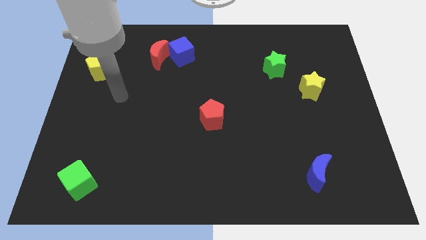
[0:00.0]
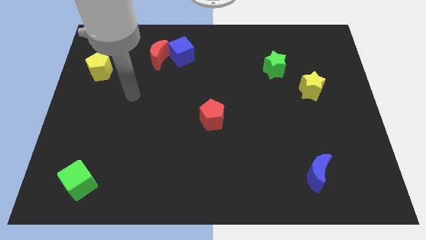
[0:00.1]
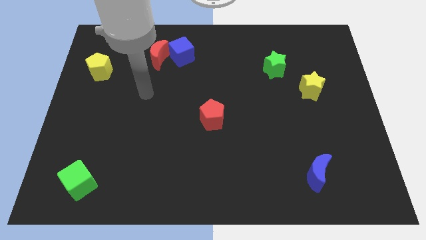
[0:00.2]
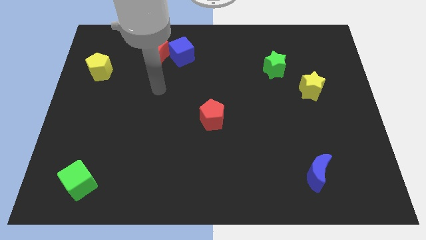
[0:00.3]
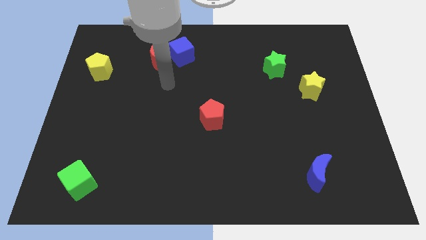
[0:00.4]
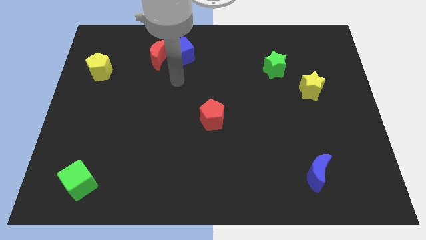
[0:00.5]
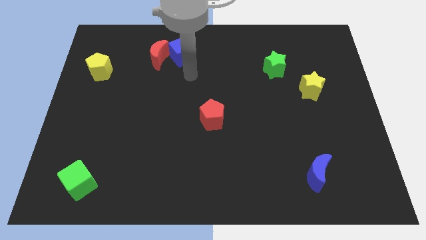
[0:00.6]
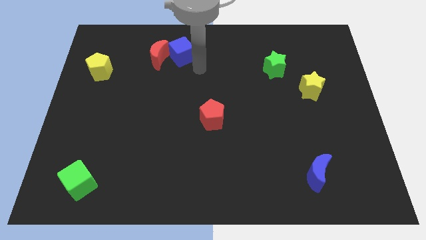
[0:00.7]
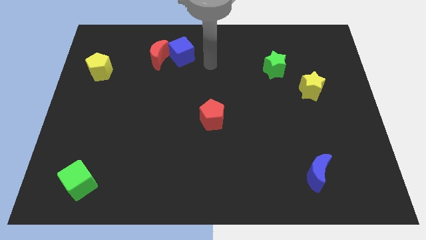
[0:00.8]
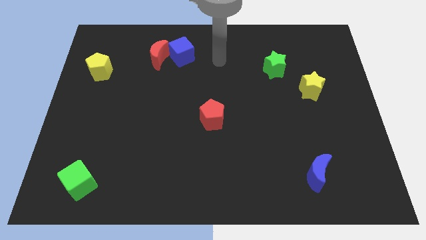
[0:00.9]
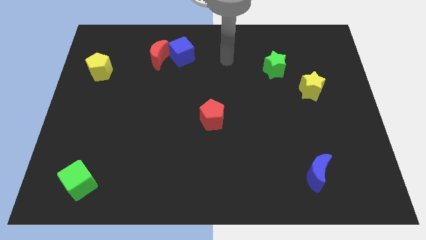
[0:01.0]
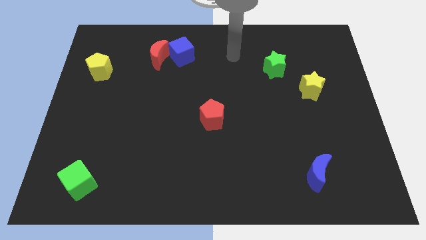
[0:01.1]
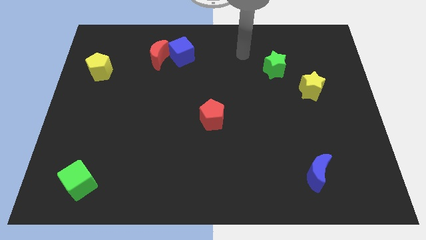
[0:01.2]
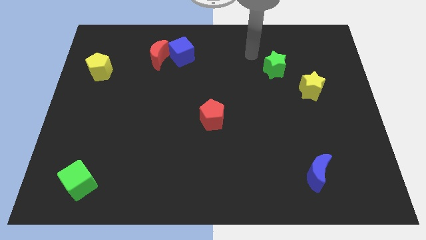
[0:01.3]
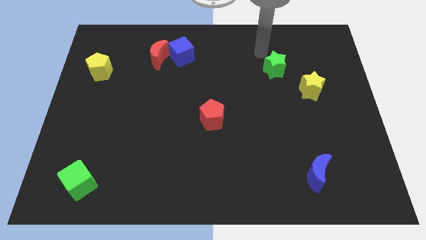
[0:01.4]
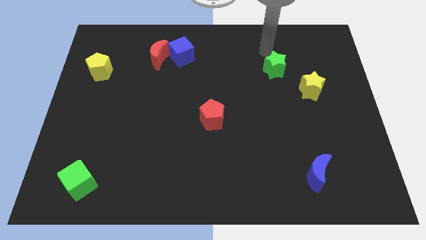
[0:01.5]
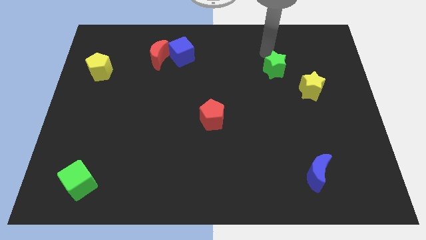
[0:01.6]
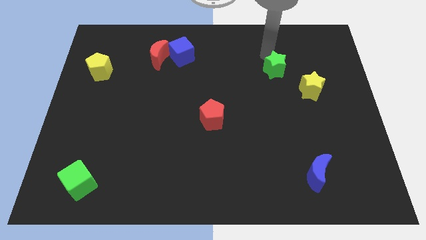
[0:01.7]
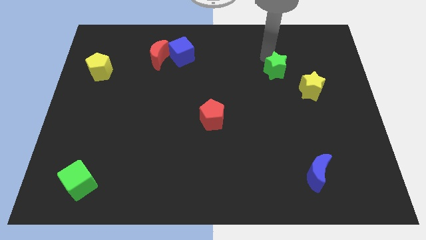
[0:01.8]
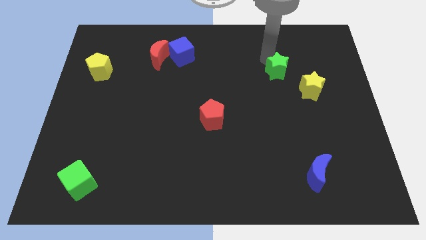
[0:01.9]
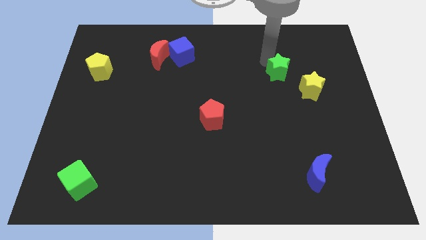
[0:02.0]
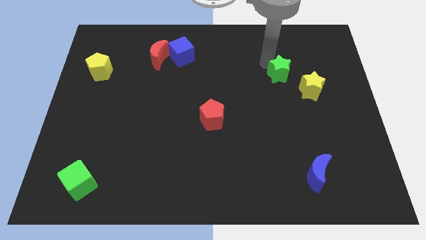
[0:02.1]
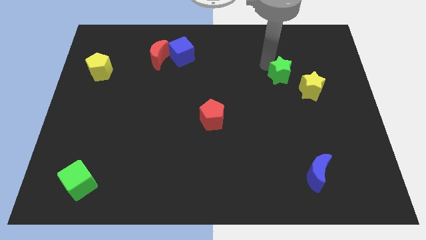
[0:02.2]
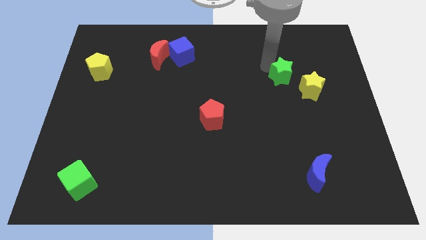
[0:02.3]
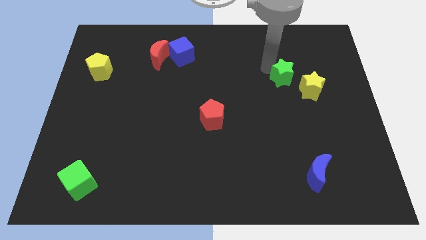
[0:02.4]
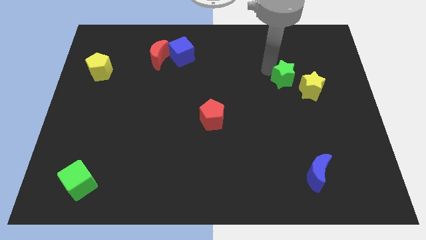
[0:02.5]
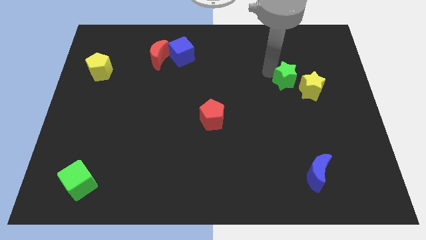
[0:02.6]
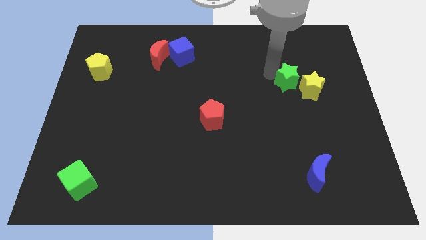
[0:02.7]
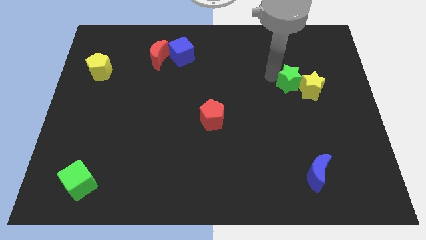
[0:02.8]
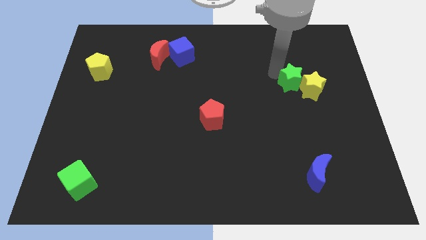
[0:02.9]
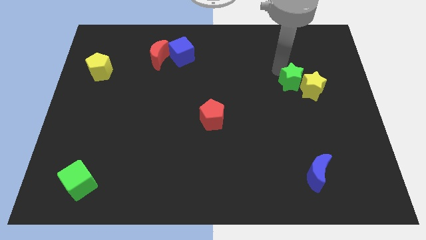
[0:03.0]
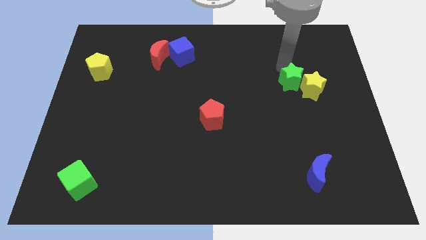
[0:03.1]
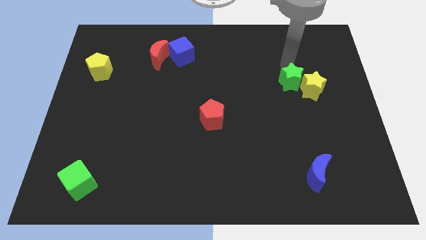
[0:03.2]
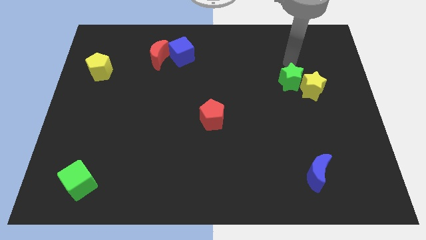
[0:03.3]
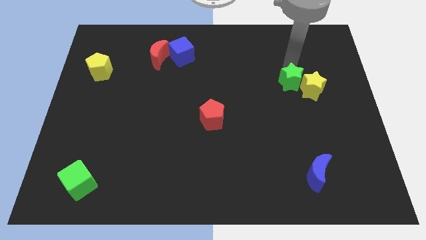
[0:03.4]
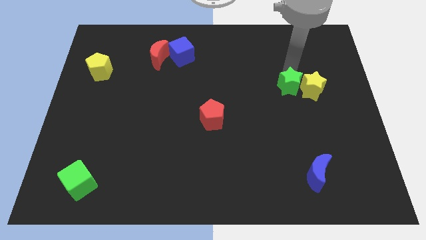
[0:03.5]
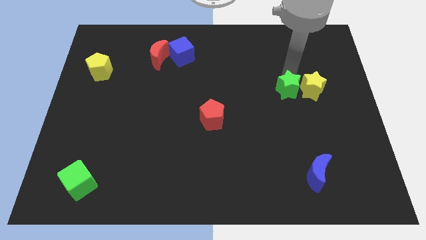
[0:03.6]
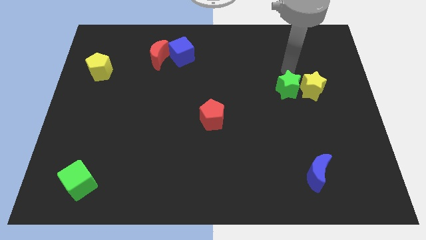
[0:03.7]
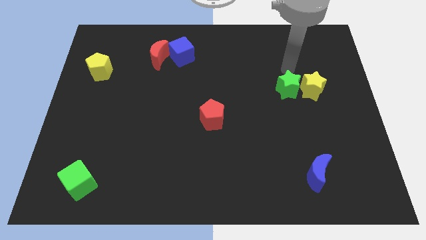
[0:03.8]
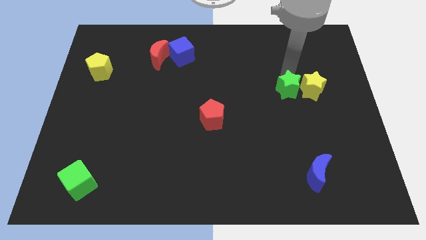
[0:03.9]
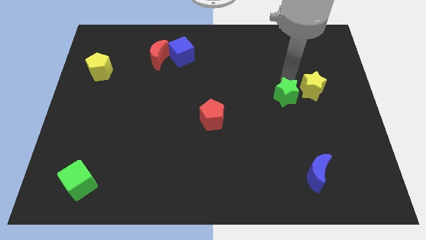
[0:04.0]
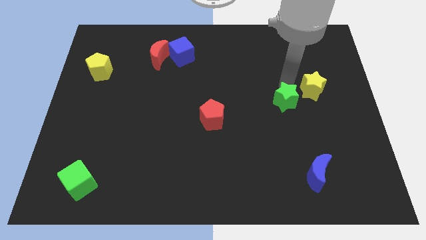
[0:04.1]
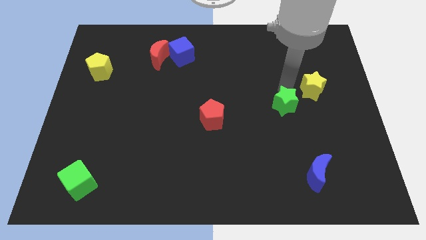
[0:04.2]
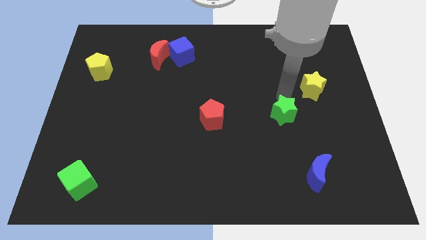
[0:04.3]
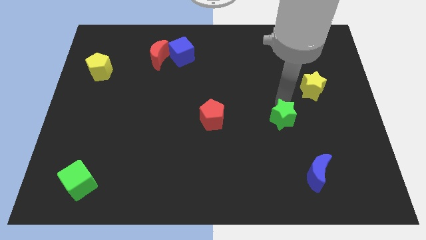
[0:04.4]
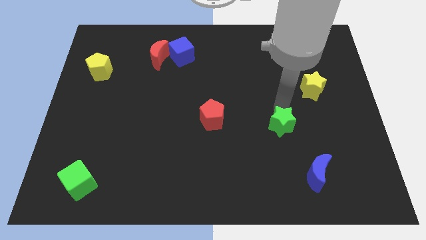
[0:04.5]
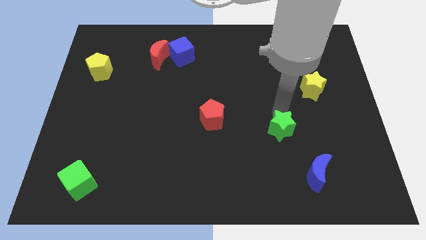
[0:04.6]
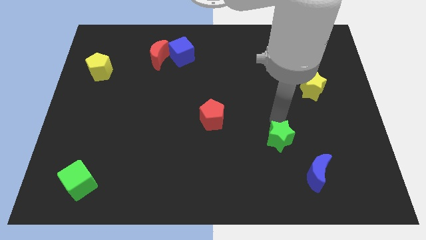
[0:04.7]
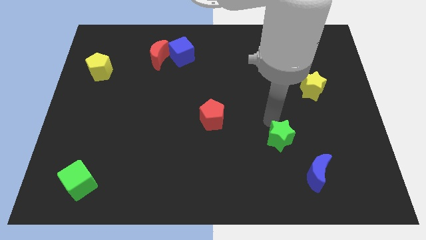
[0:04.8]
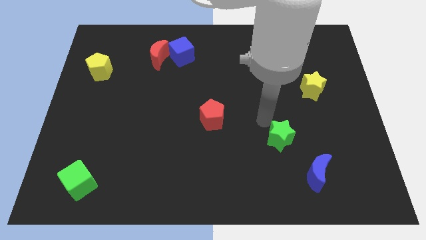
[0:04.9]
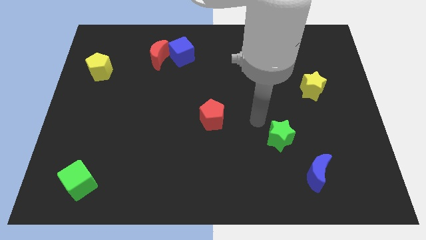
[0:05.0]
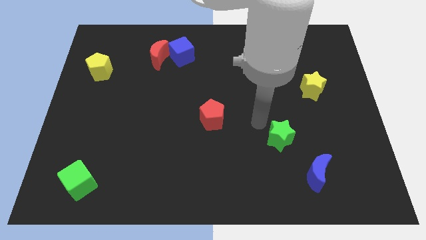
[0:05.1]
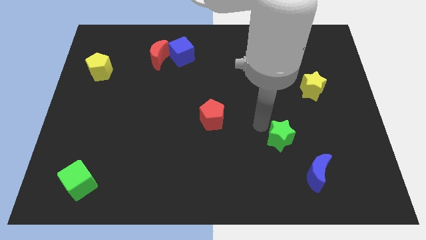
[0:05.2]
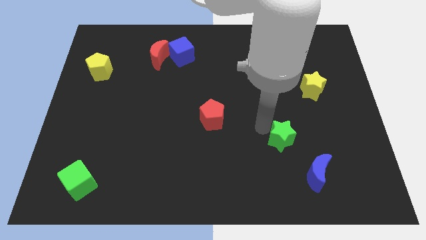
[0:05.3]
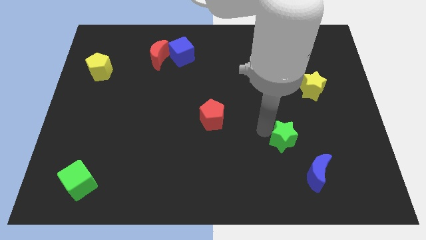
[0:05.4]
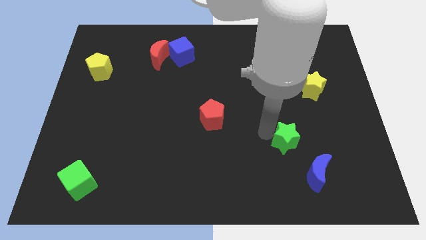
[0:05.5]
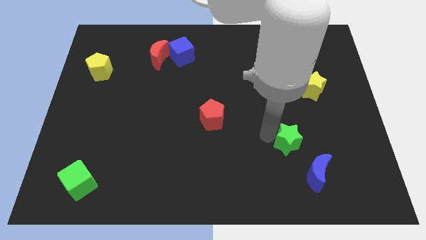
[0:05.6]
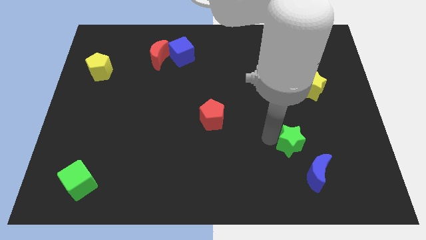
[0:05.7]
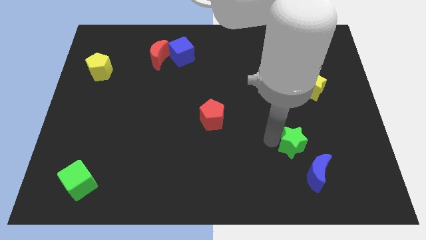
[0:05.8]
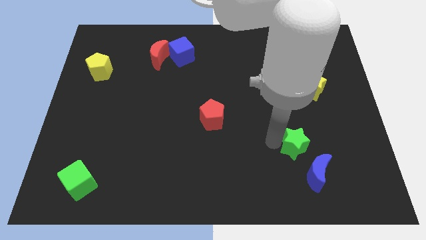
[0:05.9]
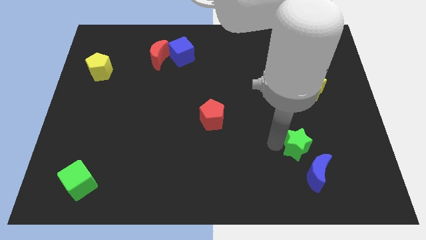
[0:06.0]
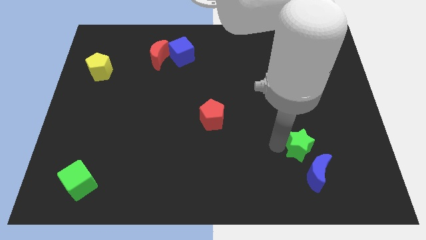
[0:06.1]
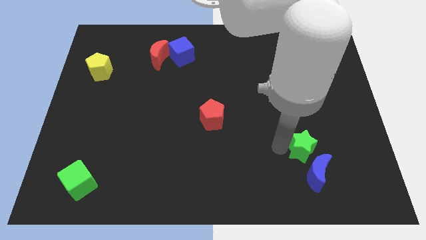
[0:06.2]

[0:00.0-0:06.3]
slide the green star next to the blue moon
